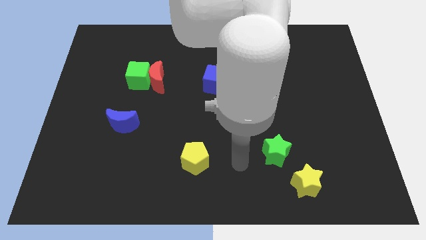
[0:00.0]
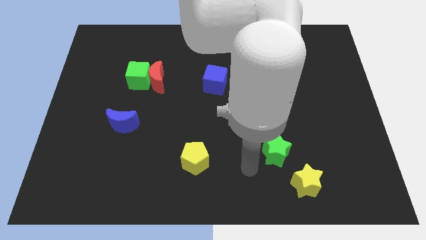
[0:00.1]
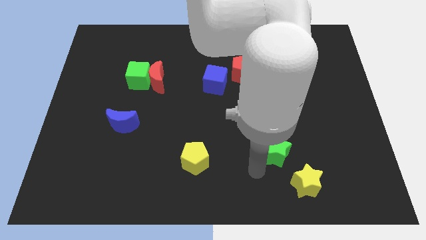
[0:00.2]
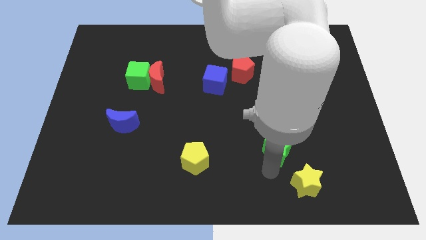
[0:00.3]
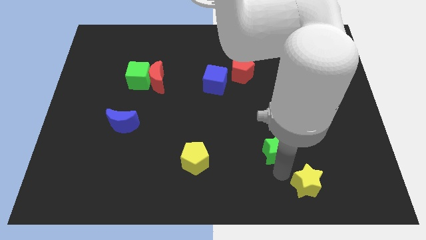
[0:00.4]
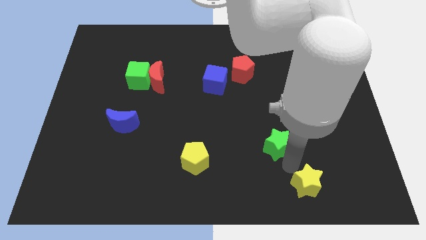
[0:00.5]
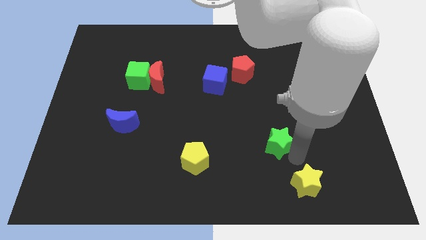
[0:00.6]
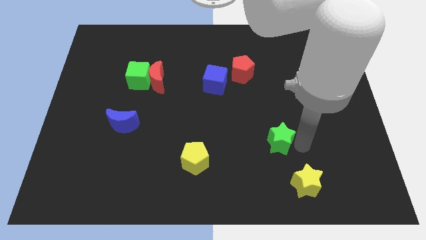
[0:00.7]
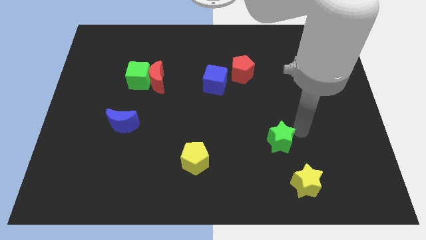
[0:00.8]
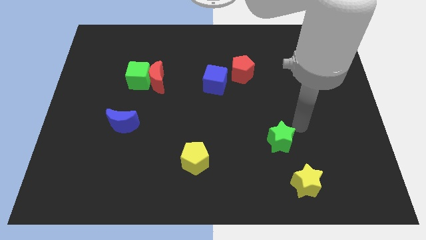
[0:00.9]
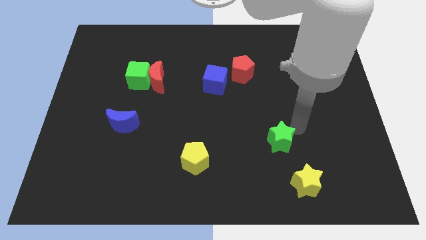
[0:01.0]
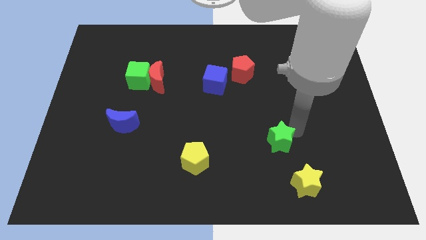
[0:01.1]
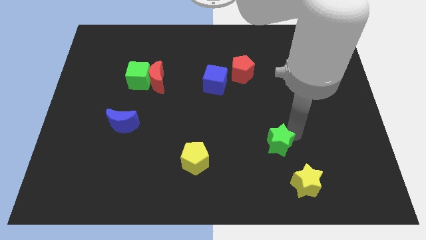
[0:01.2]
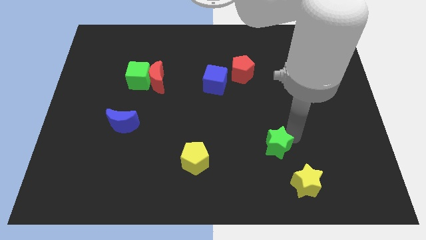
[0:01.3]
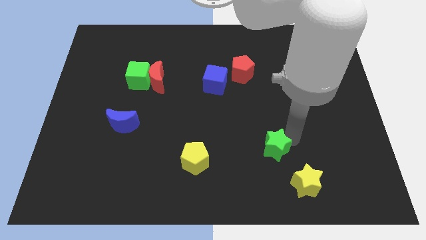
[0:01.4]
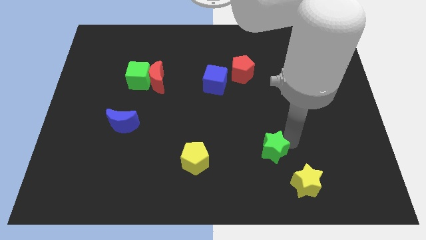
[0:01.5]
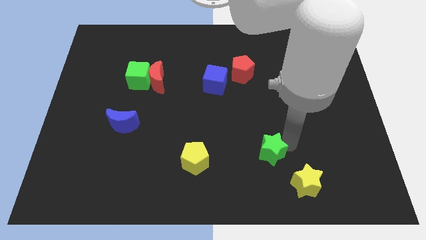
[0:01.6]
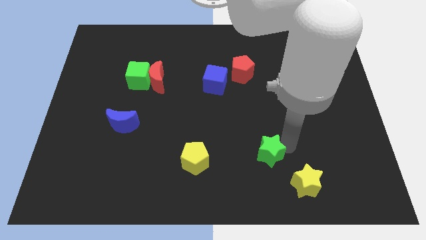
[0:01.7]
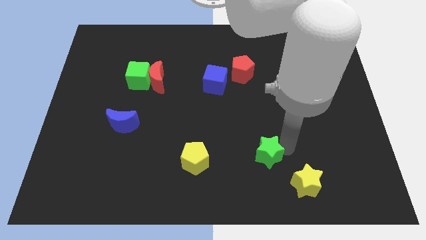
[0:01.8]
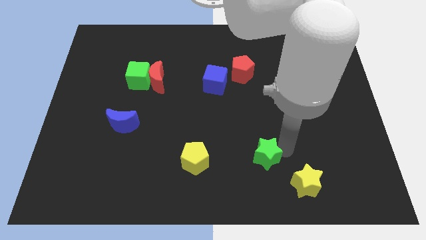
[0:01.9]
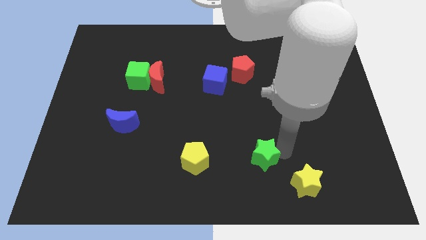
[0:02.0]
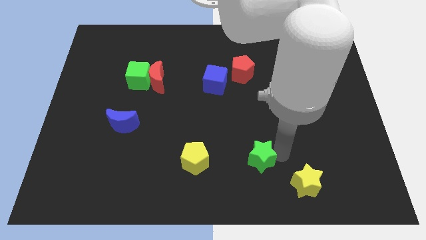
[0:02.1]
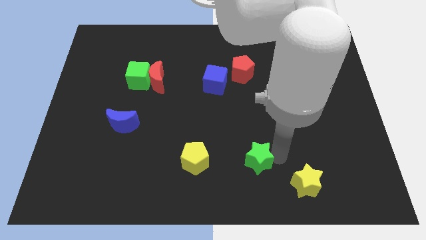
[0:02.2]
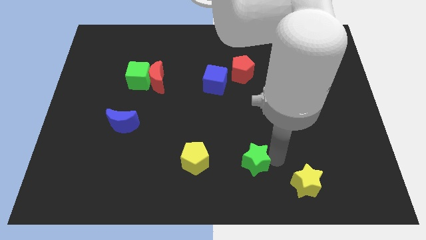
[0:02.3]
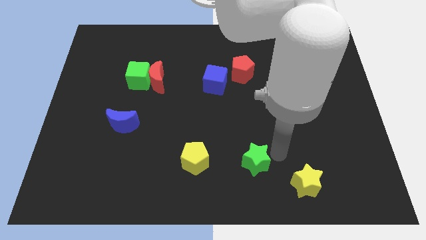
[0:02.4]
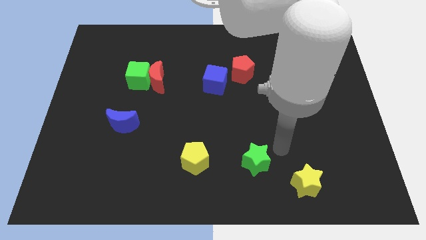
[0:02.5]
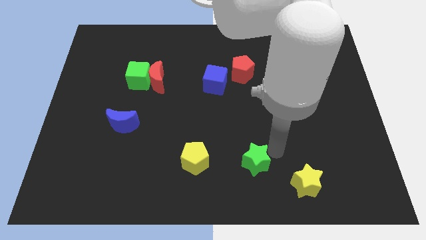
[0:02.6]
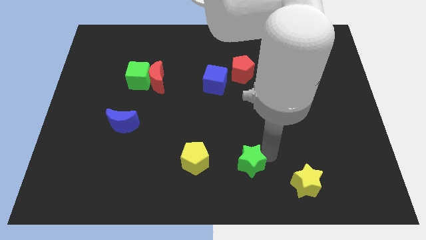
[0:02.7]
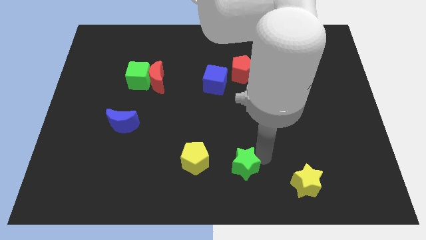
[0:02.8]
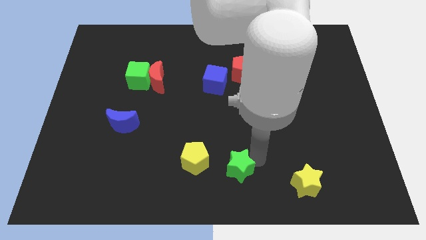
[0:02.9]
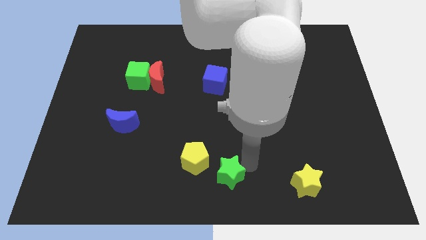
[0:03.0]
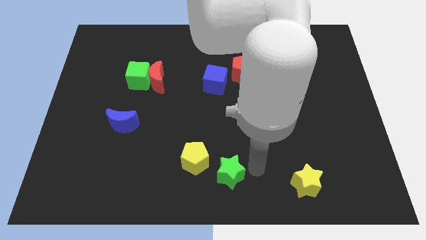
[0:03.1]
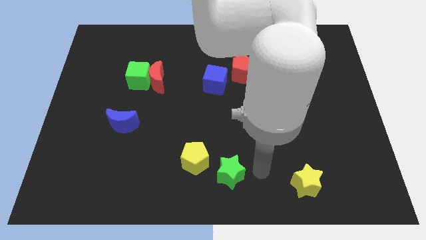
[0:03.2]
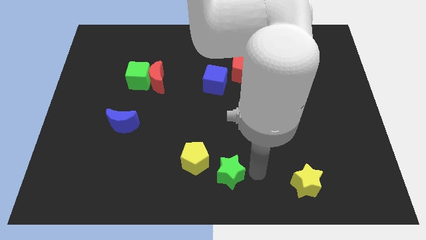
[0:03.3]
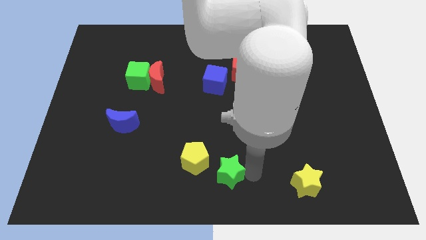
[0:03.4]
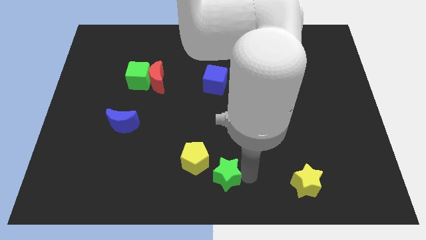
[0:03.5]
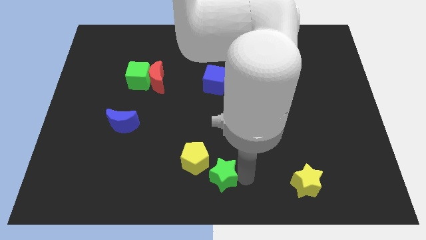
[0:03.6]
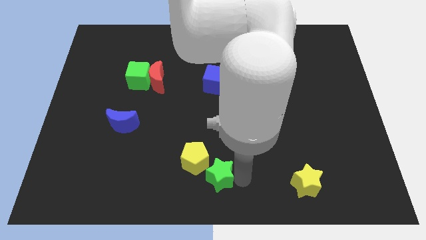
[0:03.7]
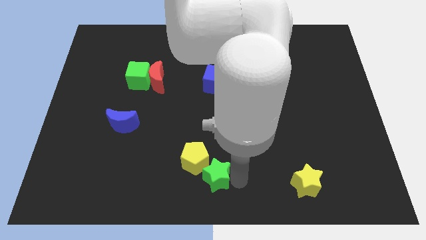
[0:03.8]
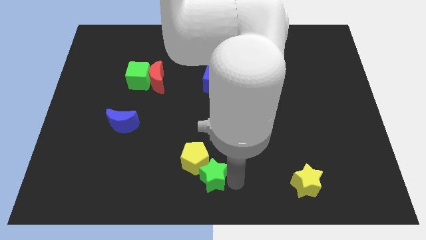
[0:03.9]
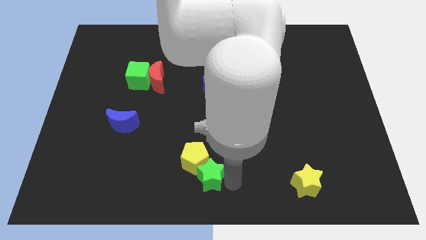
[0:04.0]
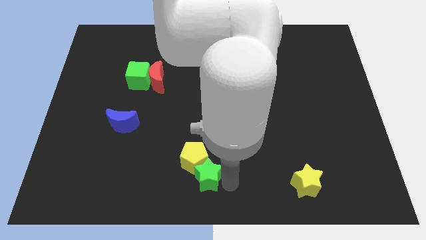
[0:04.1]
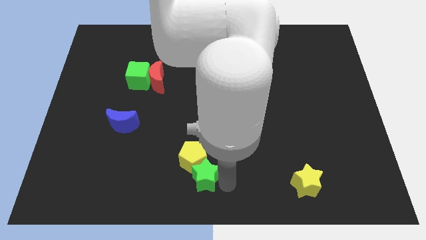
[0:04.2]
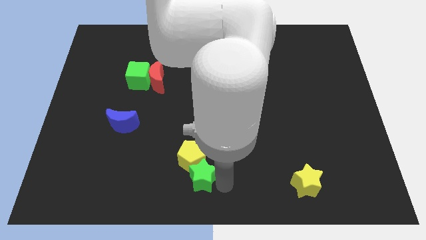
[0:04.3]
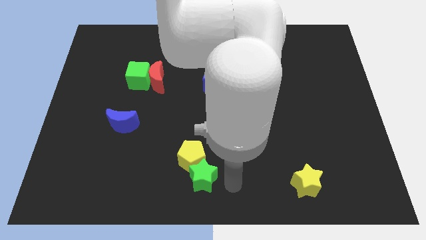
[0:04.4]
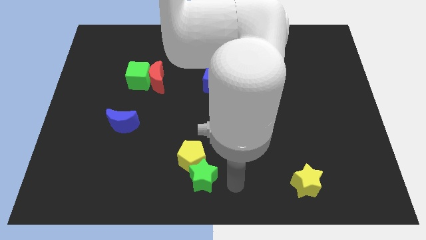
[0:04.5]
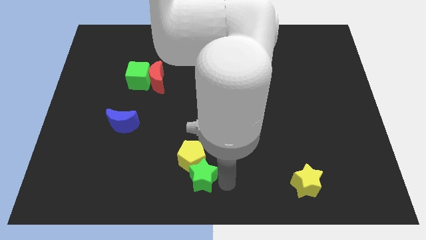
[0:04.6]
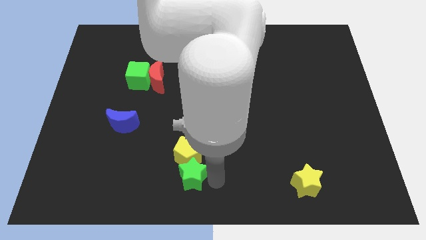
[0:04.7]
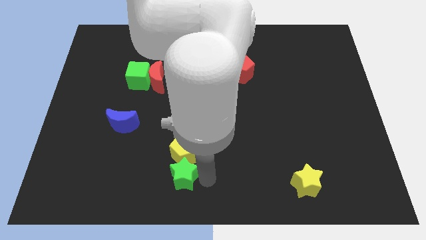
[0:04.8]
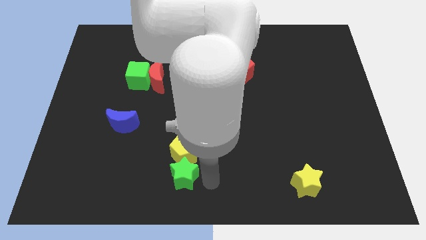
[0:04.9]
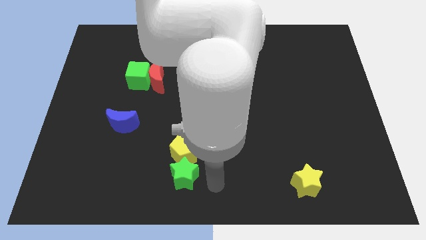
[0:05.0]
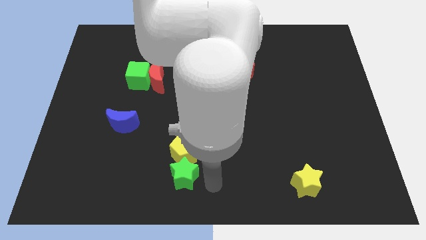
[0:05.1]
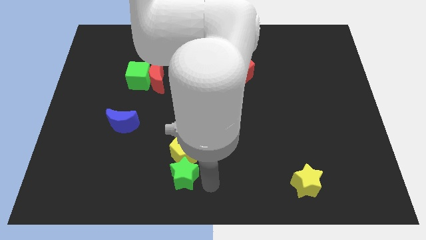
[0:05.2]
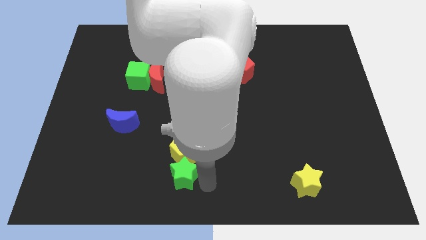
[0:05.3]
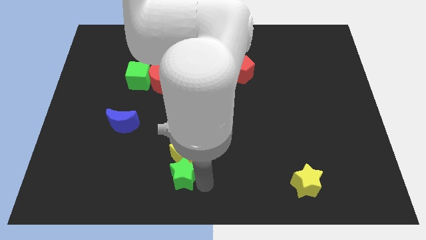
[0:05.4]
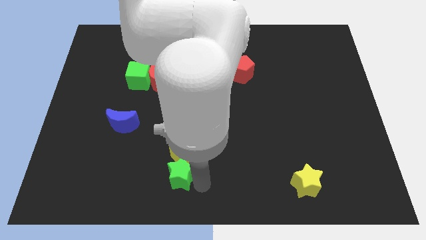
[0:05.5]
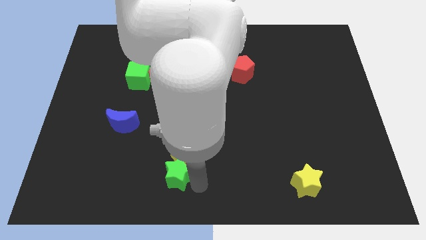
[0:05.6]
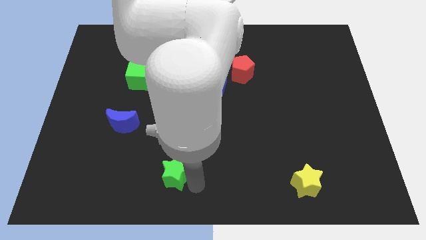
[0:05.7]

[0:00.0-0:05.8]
slide the green star to the left

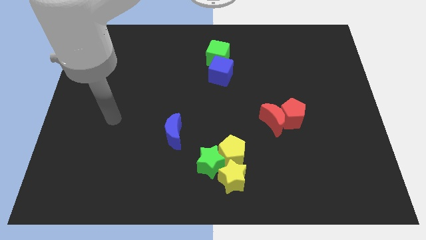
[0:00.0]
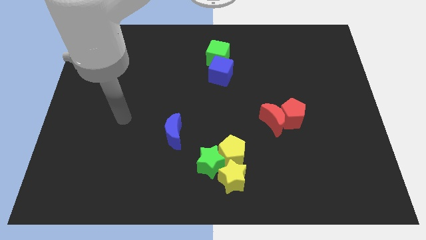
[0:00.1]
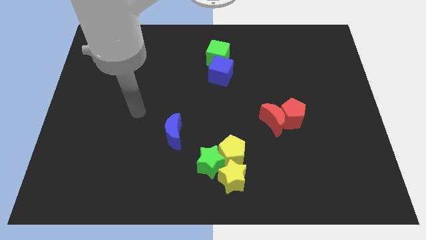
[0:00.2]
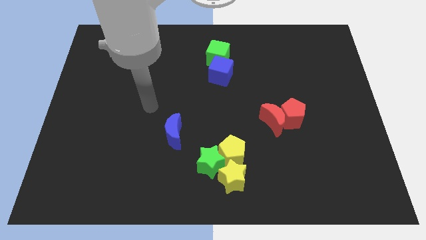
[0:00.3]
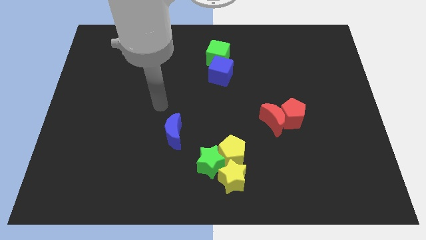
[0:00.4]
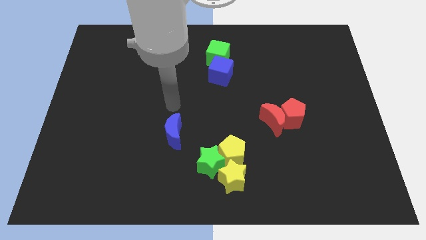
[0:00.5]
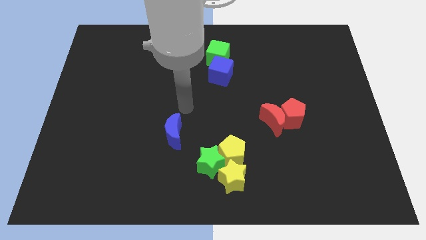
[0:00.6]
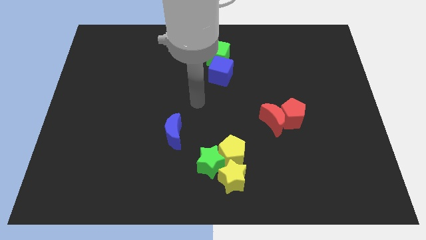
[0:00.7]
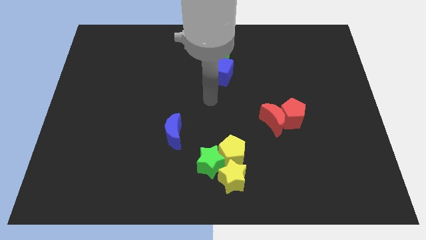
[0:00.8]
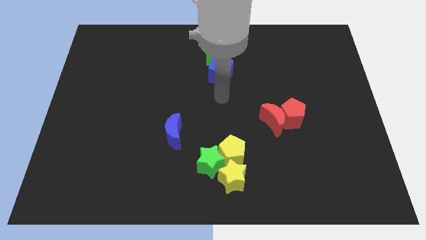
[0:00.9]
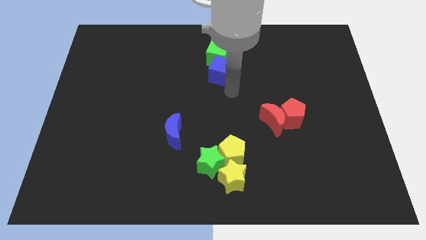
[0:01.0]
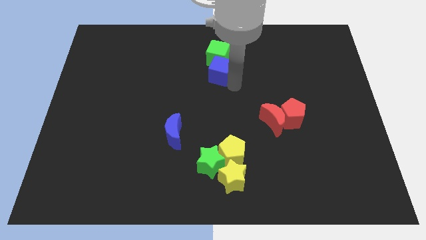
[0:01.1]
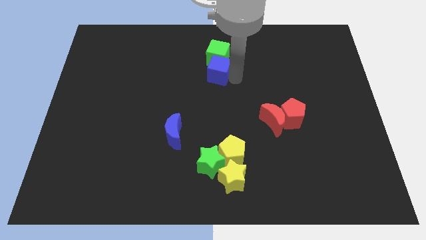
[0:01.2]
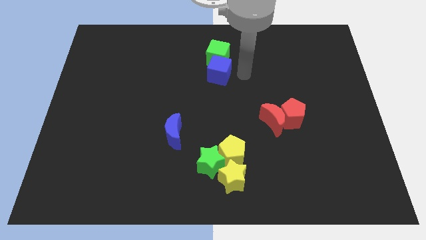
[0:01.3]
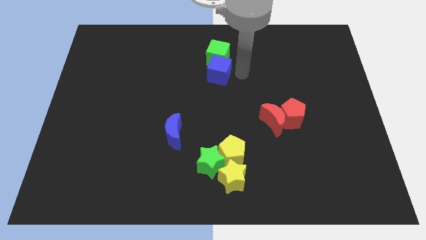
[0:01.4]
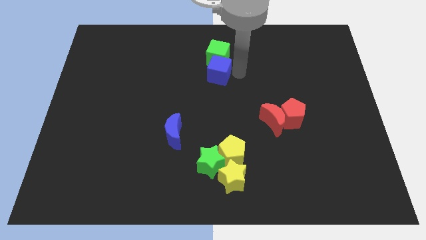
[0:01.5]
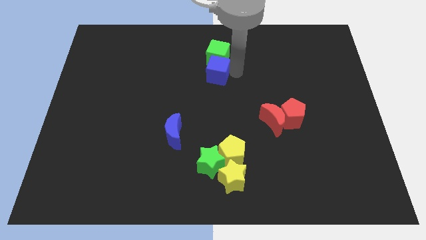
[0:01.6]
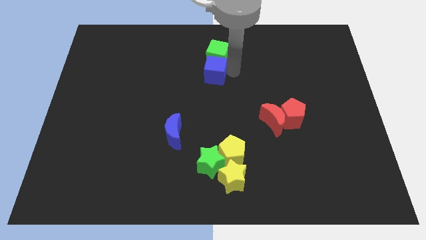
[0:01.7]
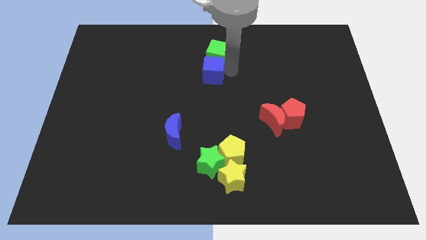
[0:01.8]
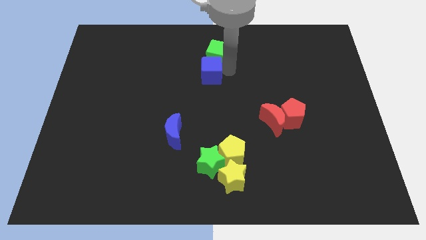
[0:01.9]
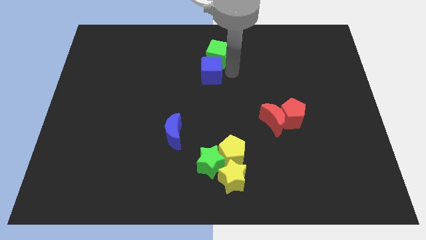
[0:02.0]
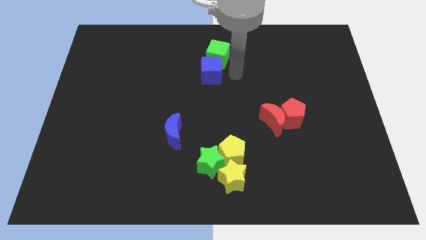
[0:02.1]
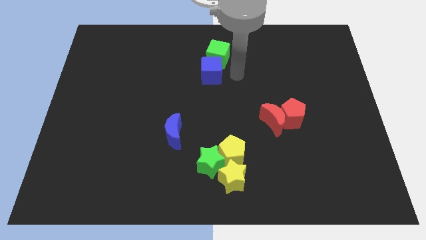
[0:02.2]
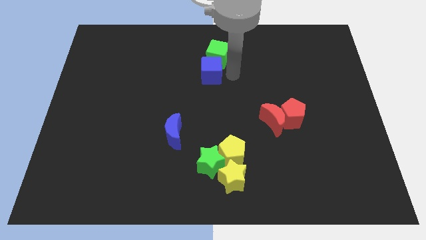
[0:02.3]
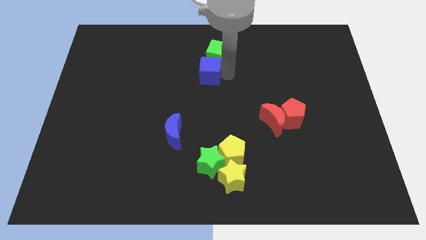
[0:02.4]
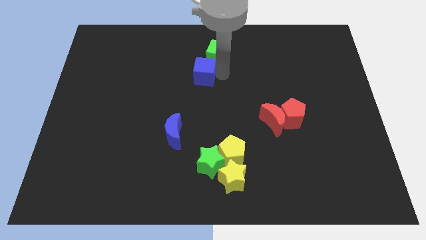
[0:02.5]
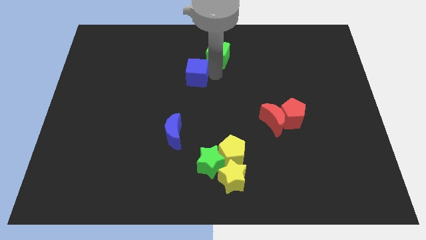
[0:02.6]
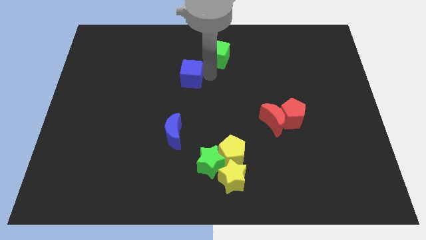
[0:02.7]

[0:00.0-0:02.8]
move the blue cube left slightly
